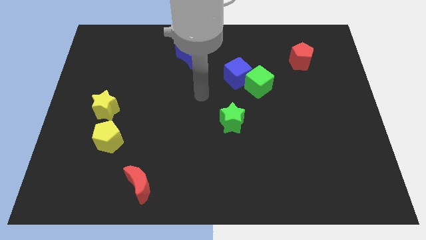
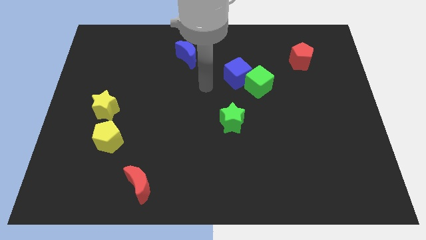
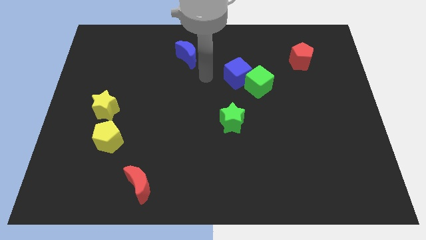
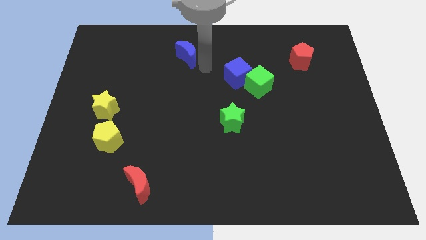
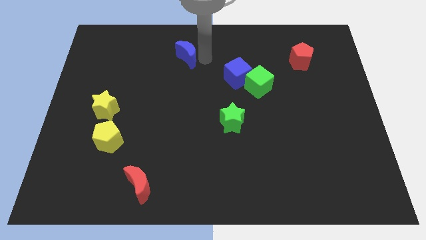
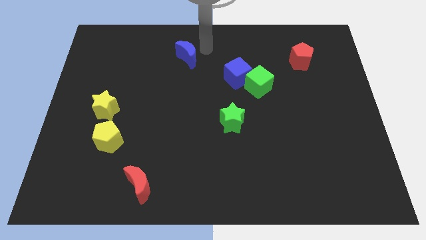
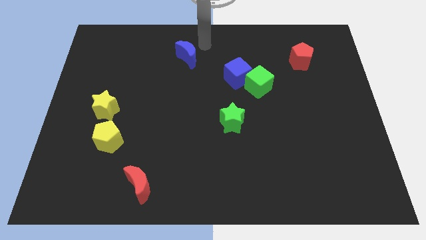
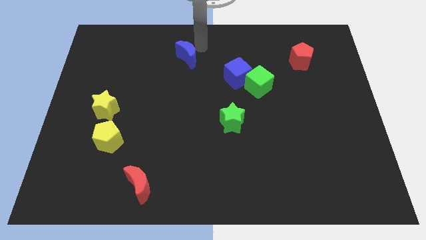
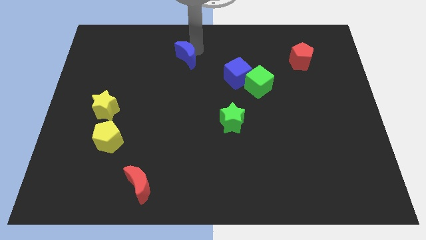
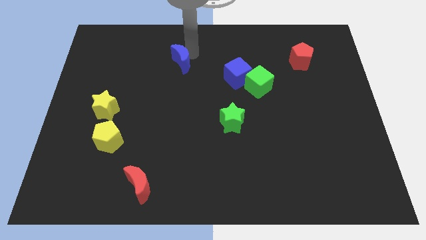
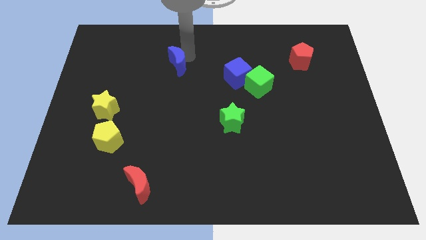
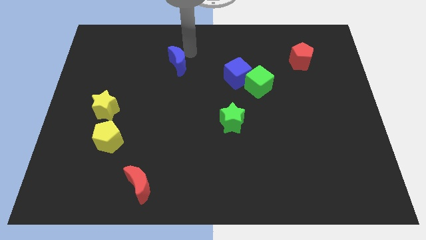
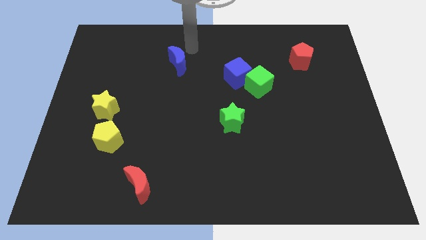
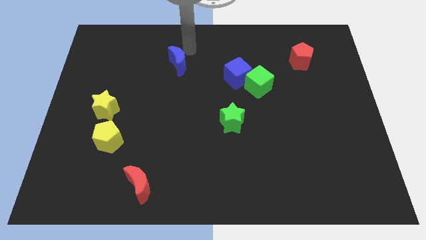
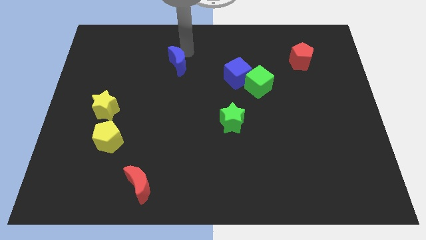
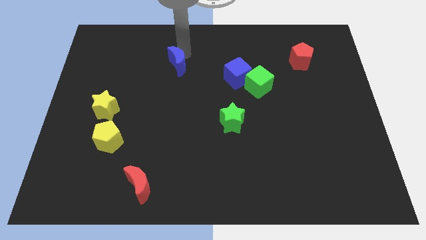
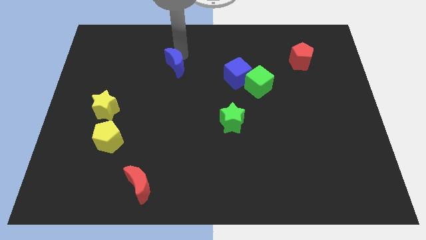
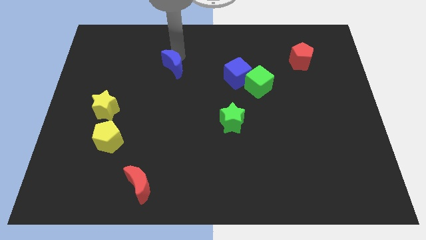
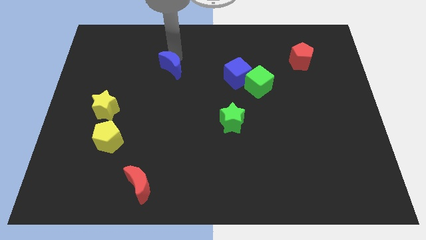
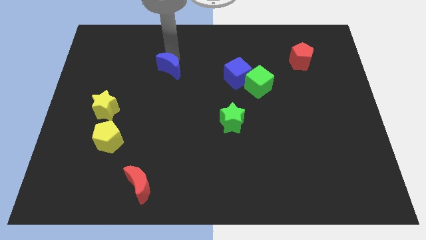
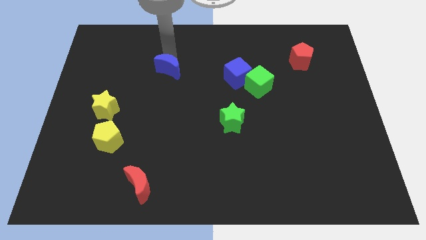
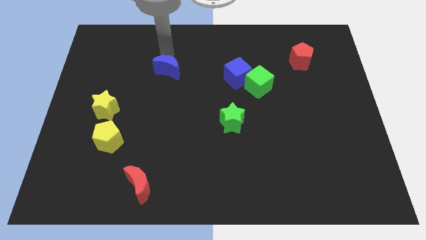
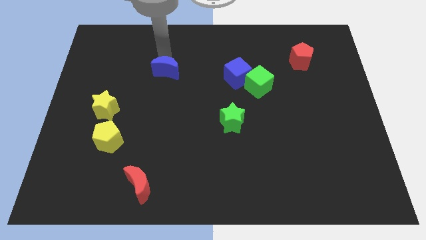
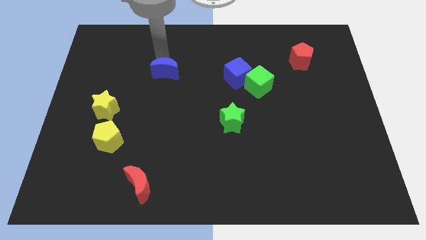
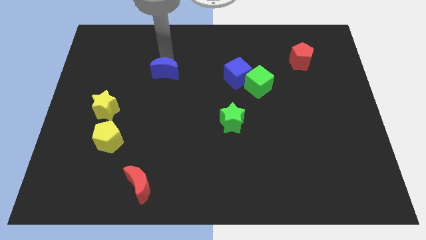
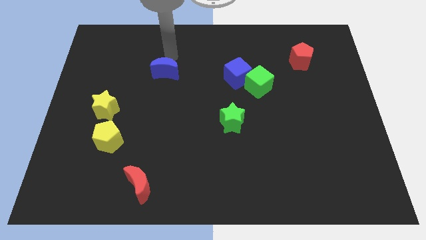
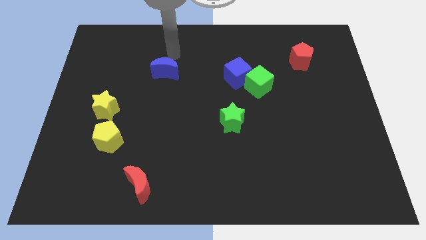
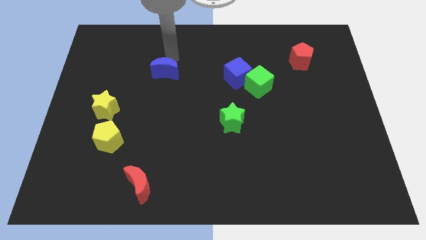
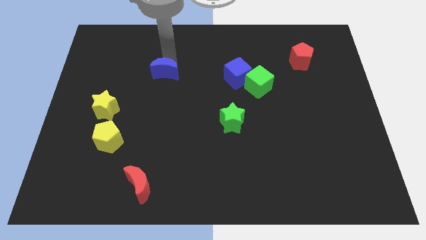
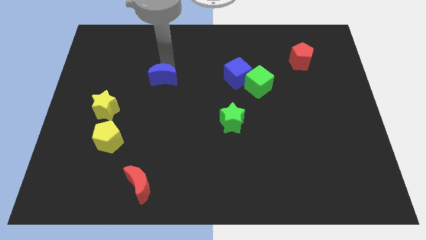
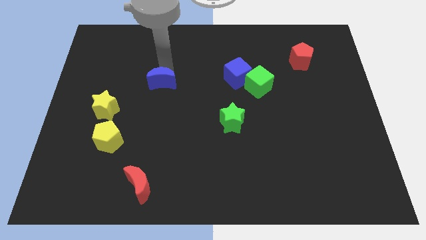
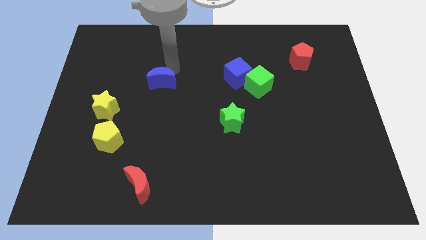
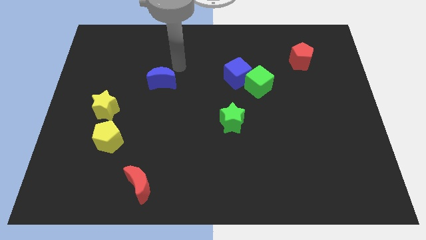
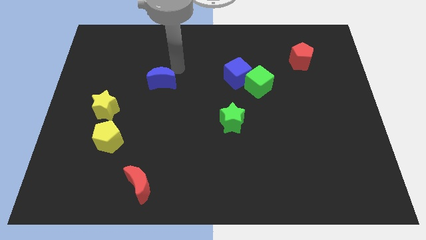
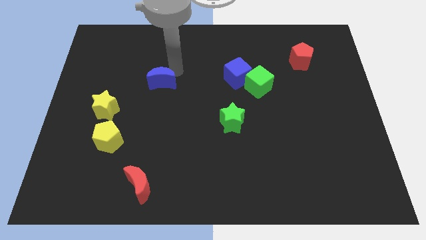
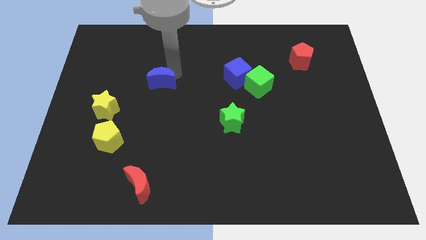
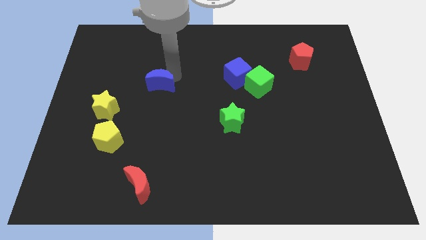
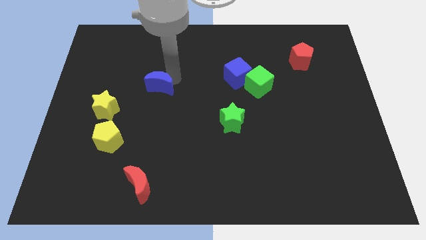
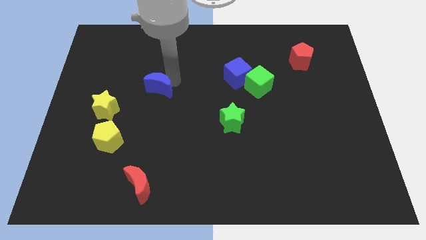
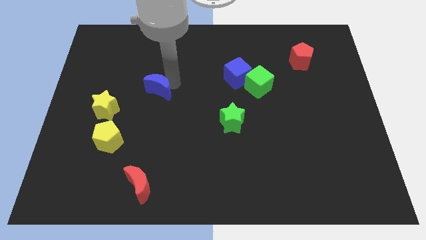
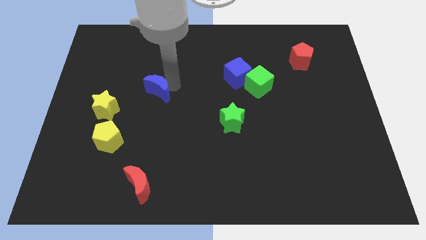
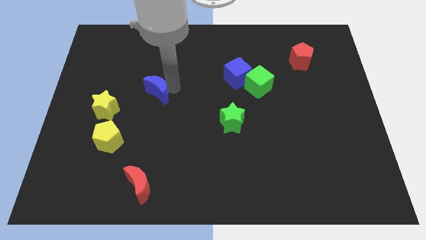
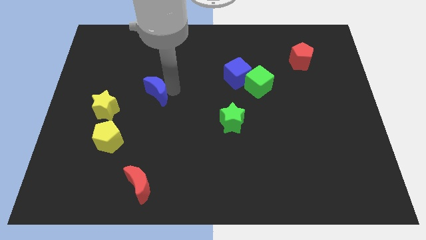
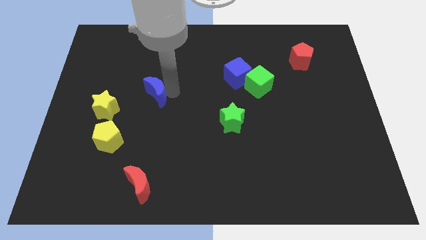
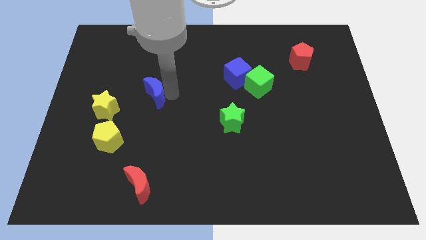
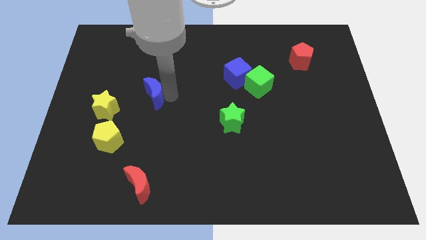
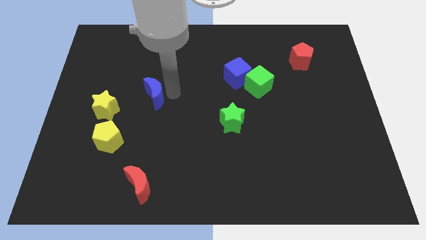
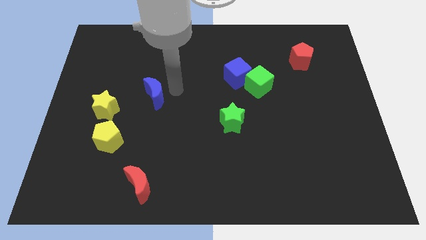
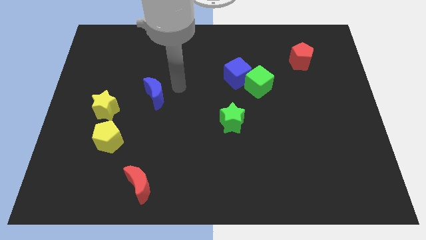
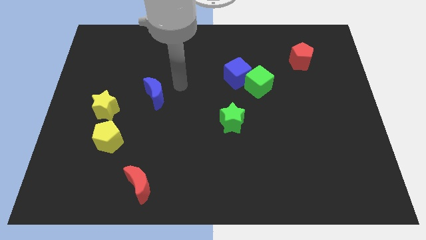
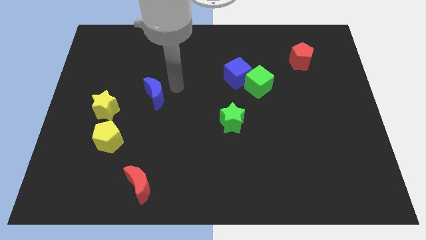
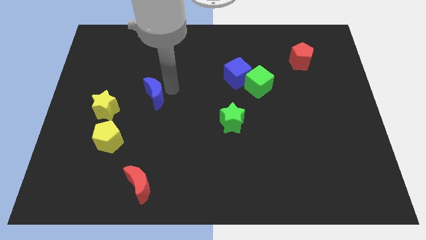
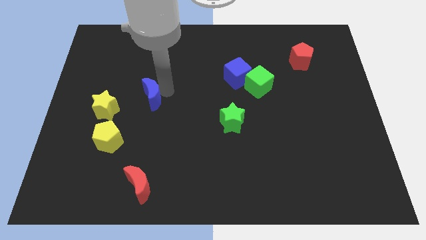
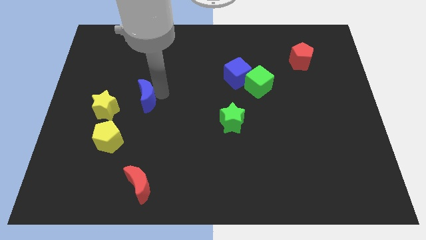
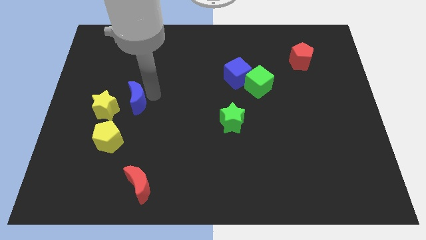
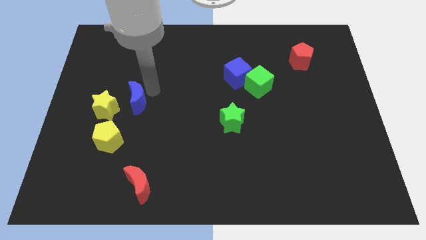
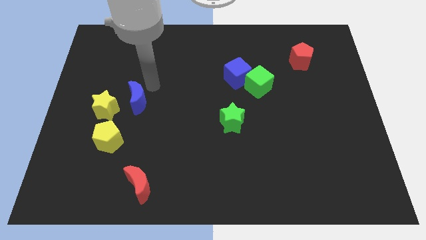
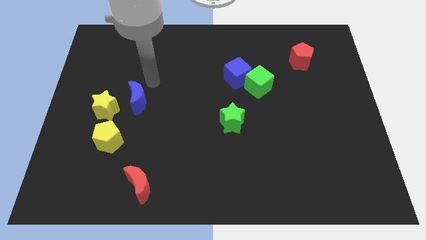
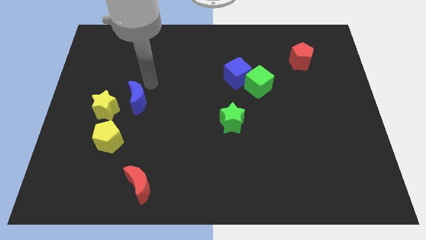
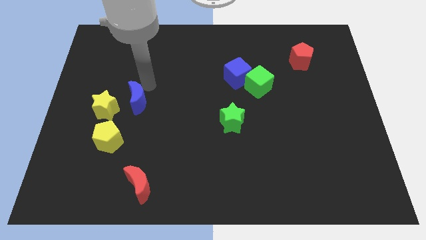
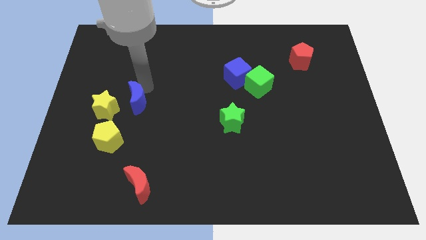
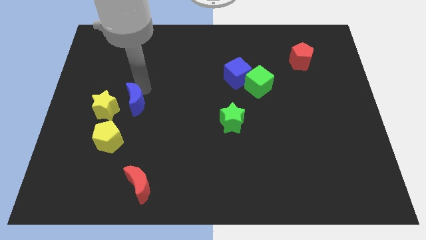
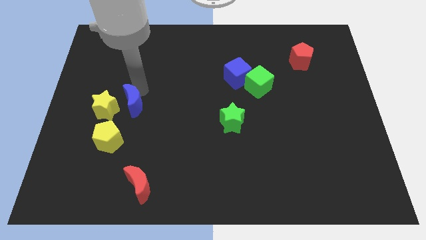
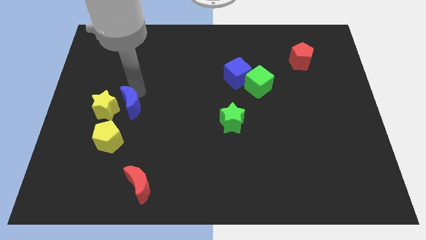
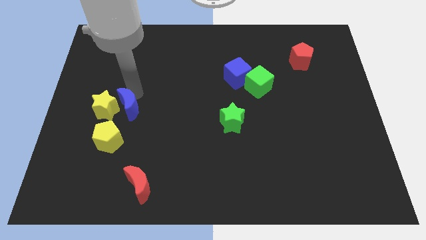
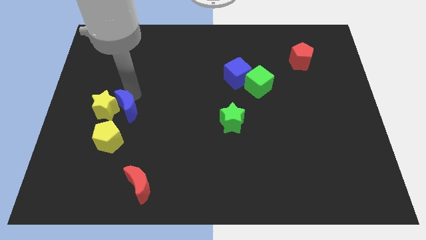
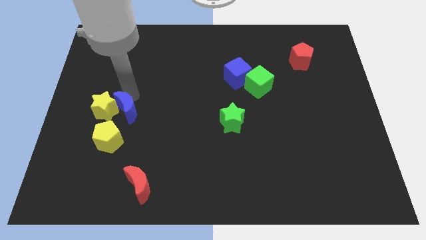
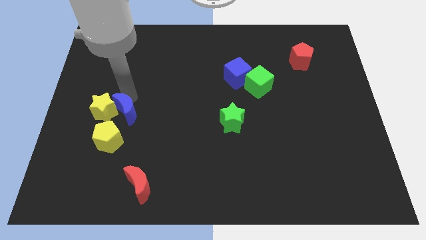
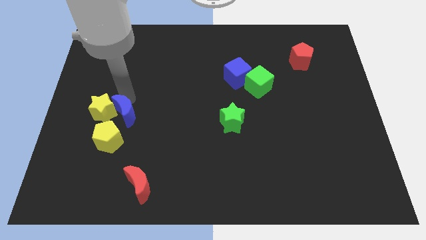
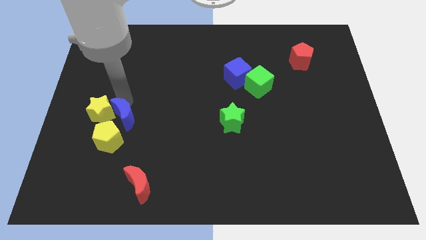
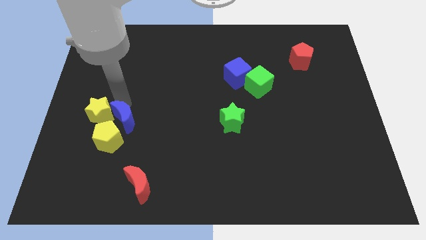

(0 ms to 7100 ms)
slide the blue moon towards the yellow pentagon

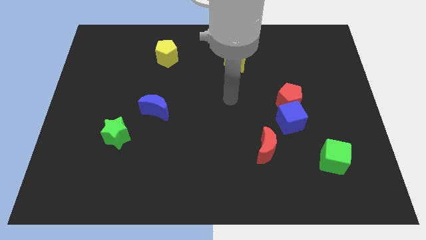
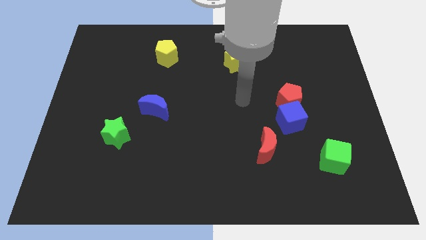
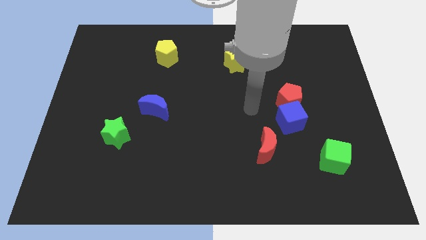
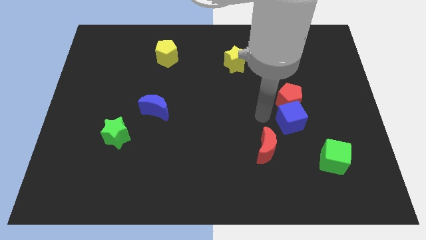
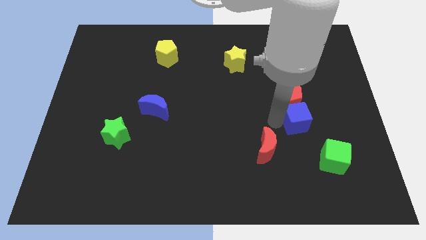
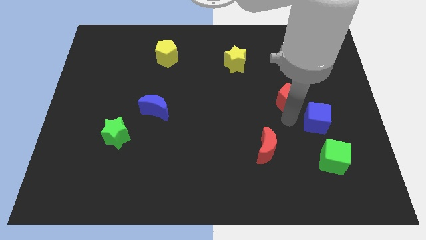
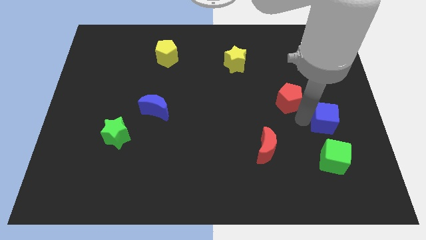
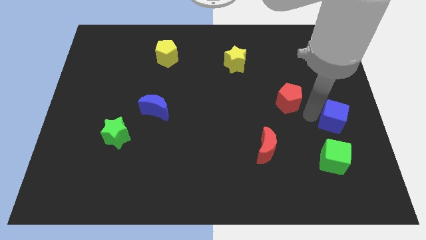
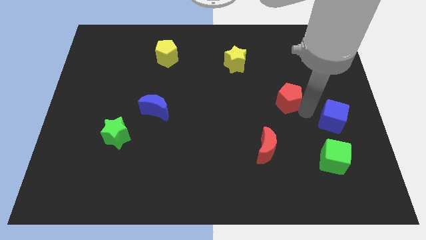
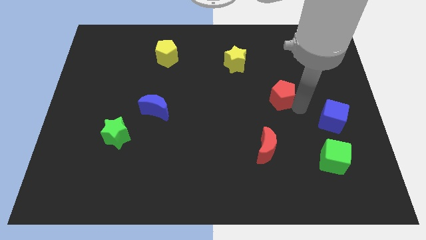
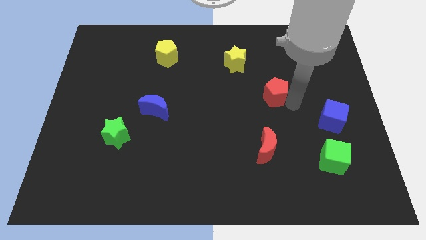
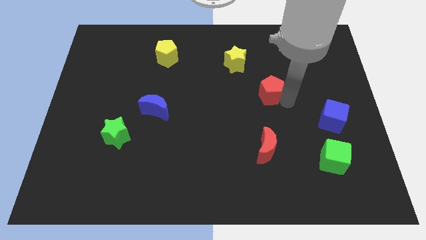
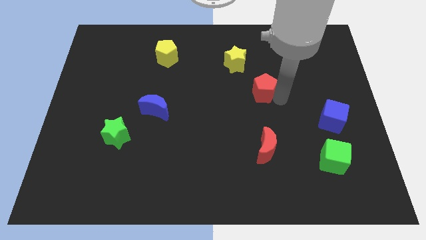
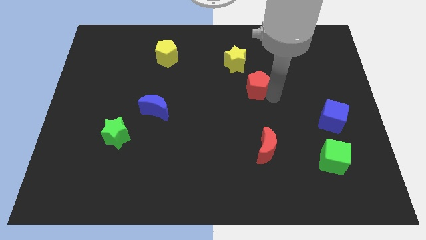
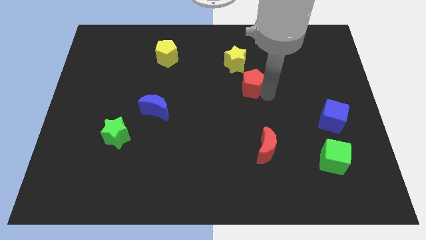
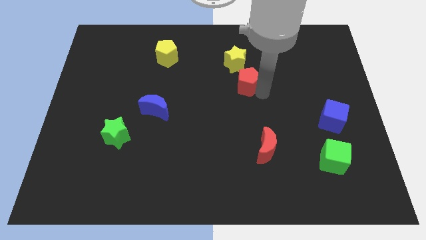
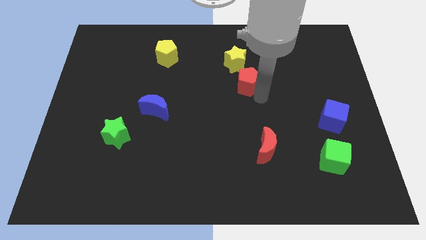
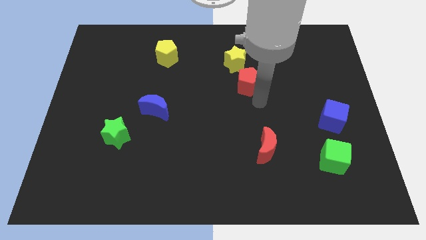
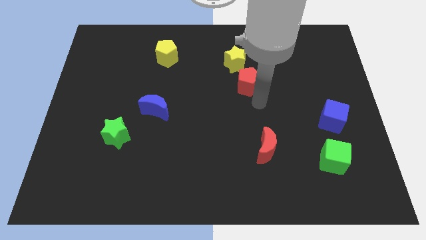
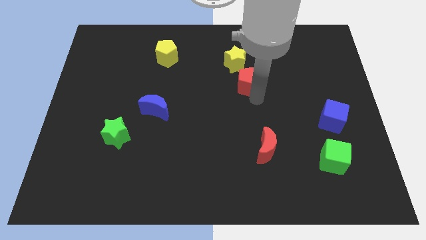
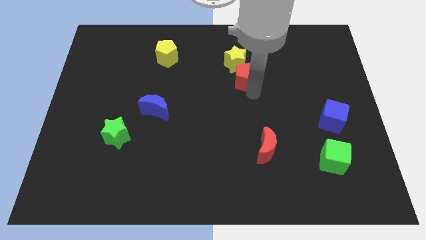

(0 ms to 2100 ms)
move the red pentagon close to the yellow star
